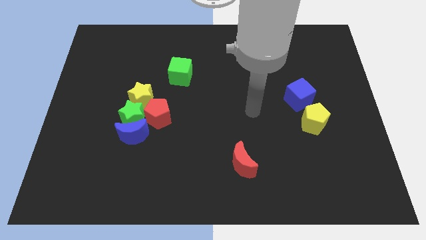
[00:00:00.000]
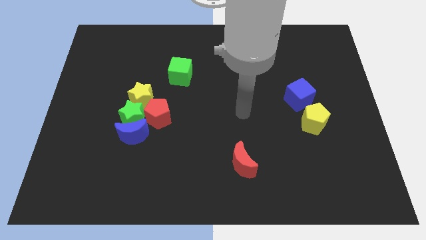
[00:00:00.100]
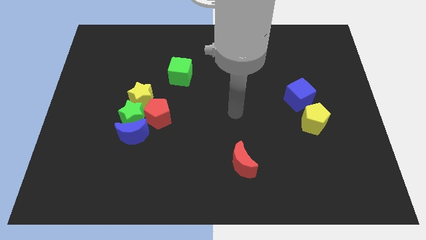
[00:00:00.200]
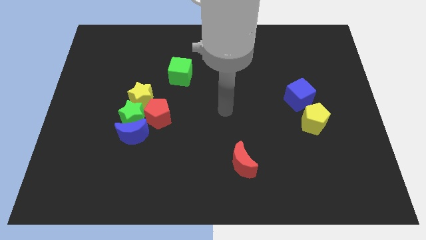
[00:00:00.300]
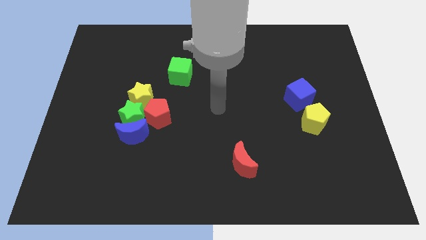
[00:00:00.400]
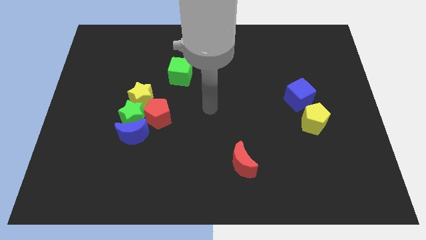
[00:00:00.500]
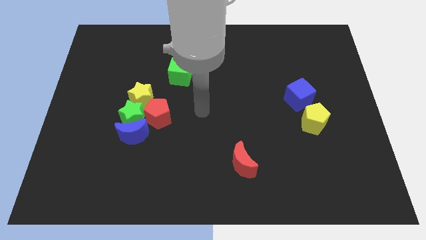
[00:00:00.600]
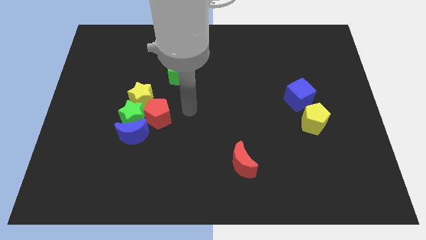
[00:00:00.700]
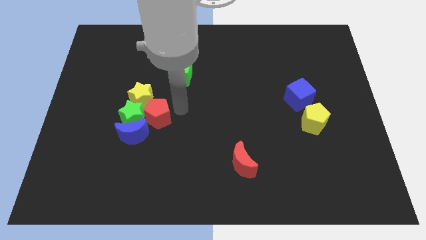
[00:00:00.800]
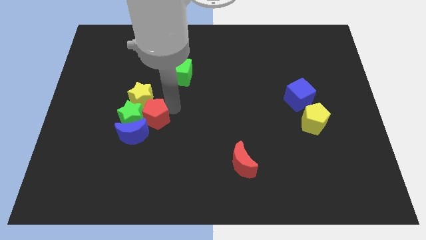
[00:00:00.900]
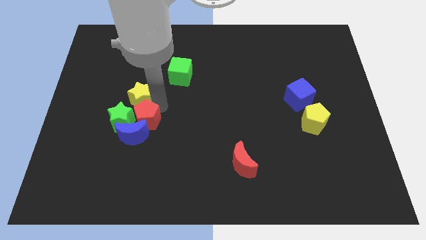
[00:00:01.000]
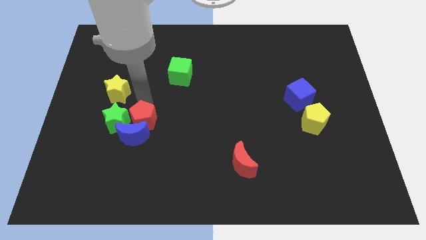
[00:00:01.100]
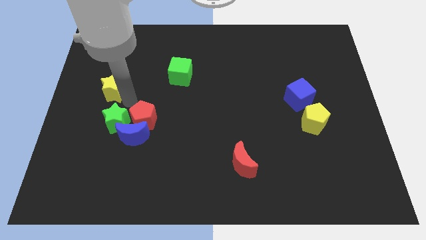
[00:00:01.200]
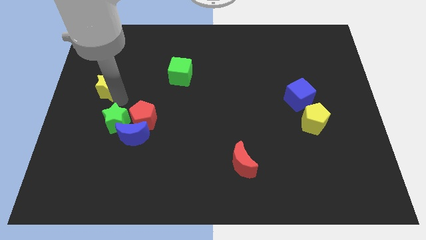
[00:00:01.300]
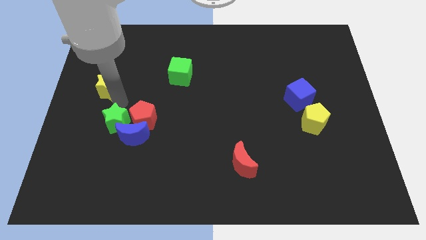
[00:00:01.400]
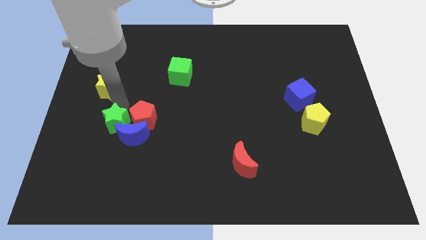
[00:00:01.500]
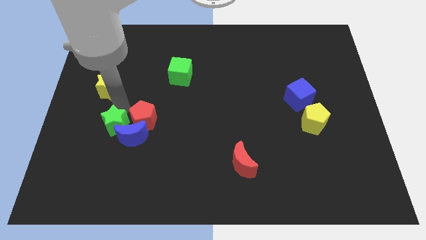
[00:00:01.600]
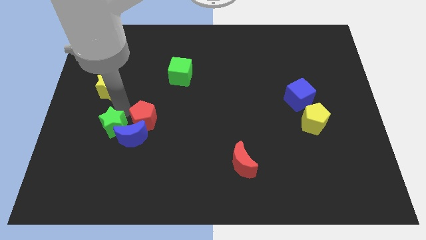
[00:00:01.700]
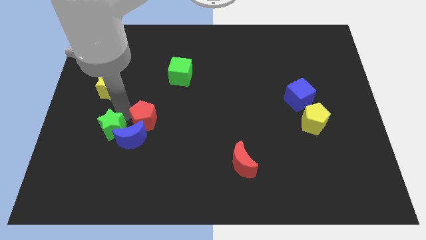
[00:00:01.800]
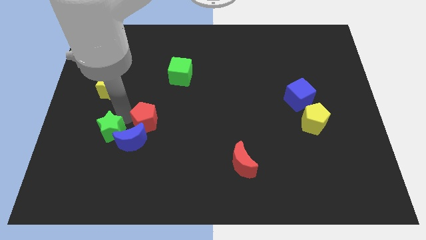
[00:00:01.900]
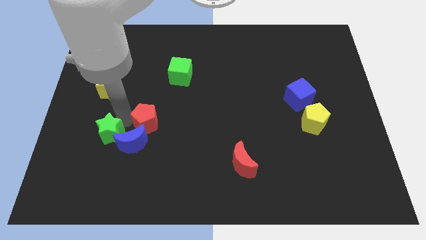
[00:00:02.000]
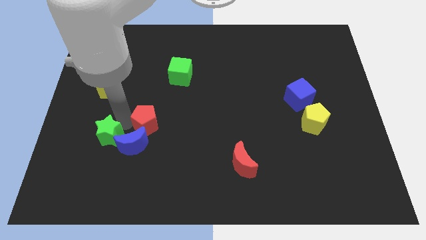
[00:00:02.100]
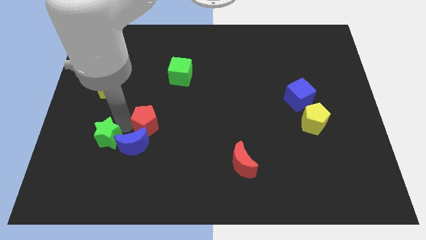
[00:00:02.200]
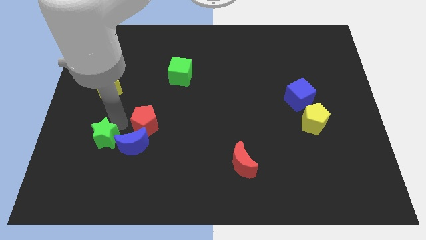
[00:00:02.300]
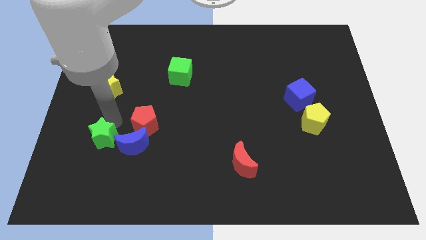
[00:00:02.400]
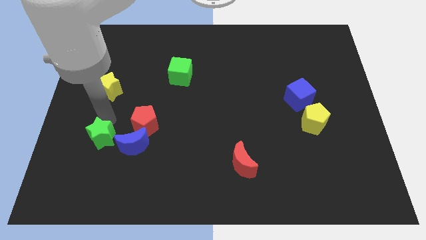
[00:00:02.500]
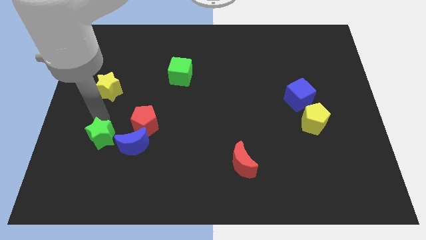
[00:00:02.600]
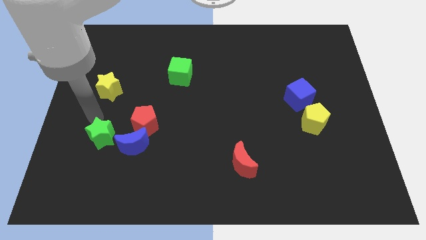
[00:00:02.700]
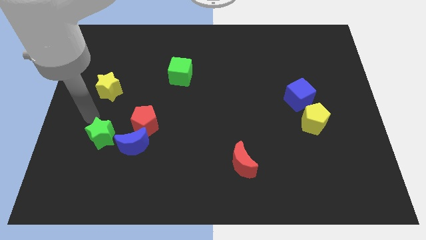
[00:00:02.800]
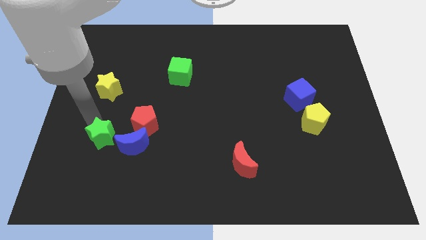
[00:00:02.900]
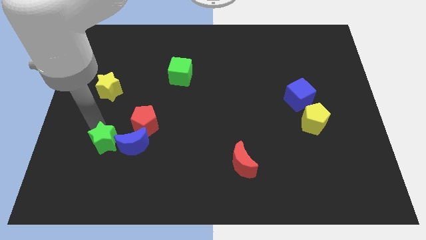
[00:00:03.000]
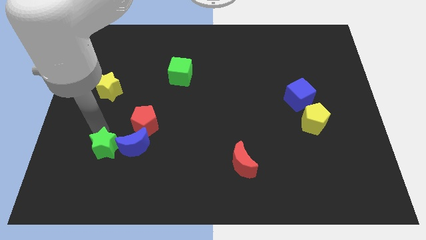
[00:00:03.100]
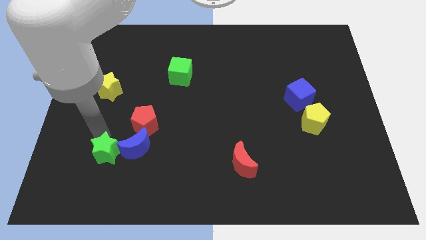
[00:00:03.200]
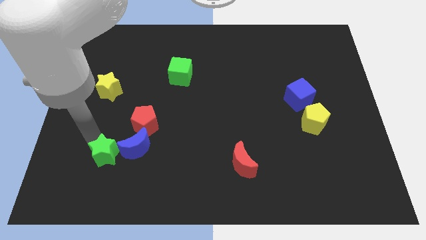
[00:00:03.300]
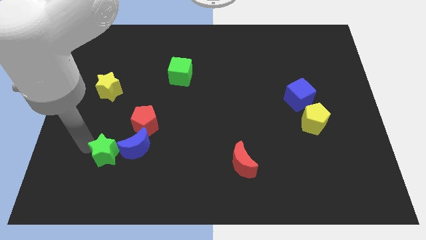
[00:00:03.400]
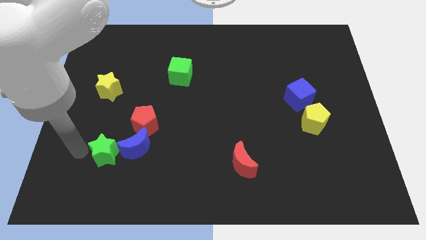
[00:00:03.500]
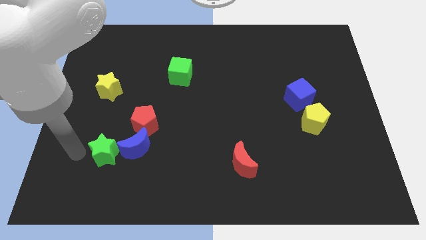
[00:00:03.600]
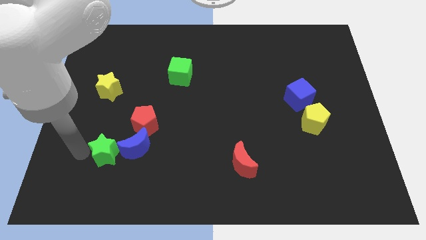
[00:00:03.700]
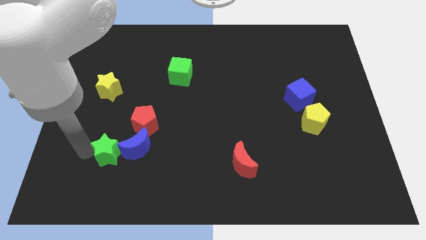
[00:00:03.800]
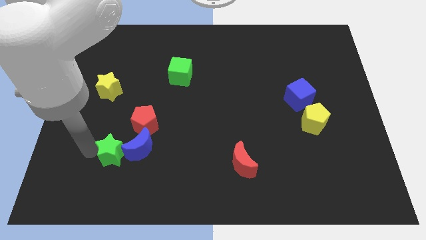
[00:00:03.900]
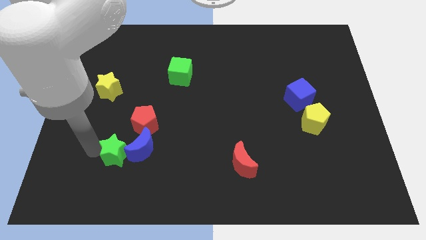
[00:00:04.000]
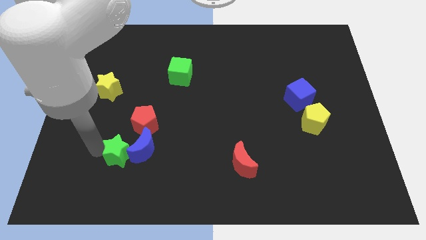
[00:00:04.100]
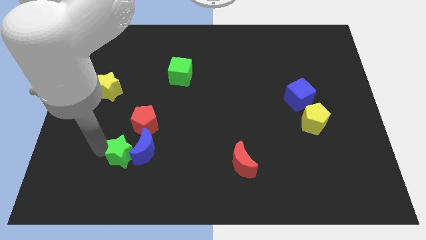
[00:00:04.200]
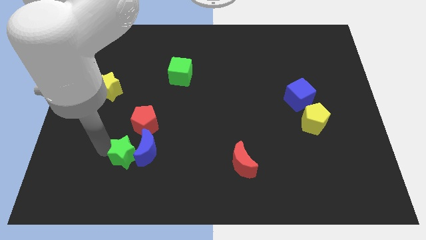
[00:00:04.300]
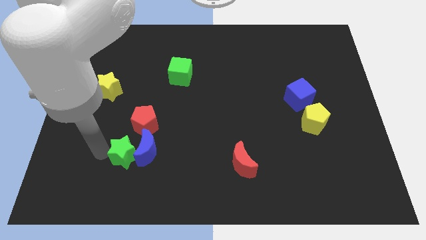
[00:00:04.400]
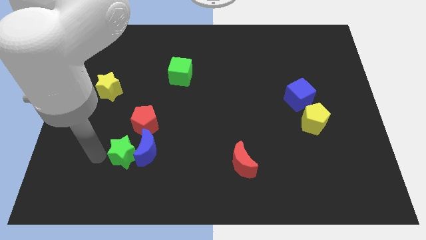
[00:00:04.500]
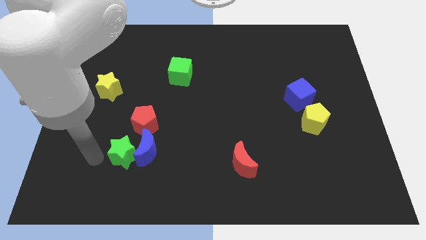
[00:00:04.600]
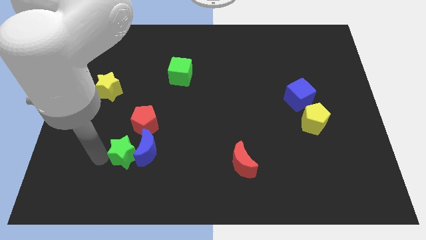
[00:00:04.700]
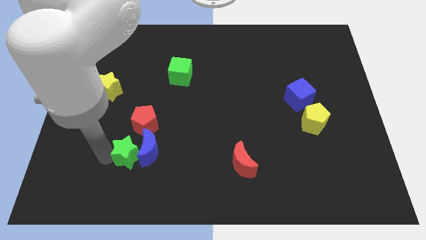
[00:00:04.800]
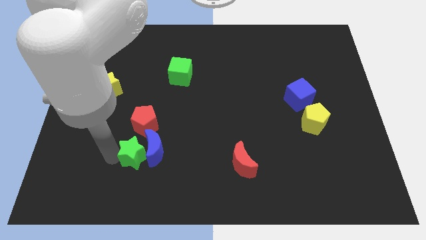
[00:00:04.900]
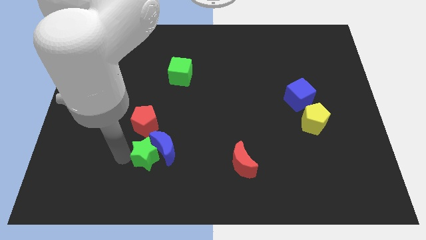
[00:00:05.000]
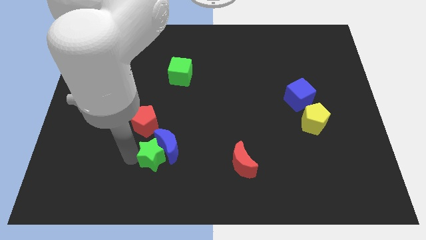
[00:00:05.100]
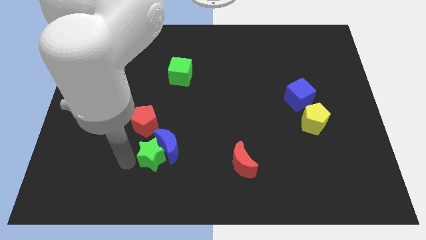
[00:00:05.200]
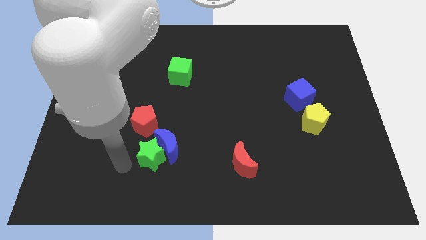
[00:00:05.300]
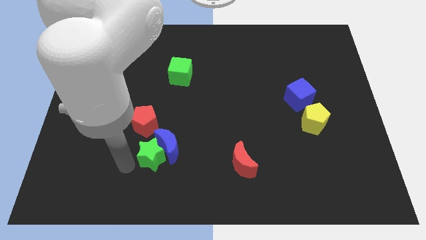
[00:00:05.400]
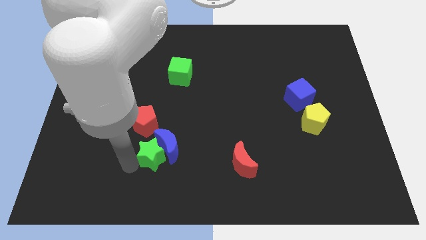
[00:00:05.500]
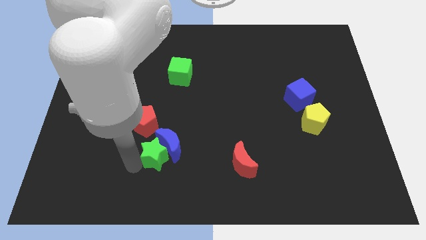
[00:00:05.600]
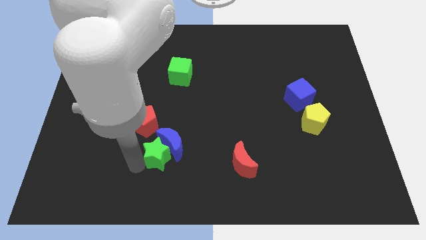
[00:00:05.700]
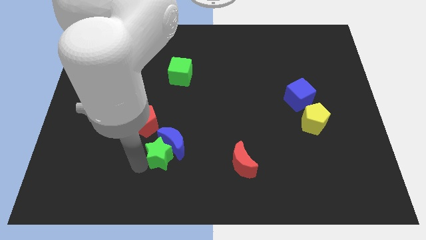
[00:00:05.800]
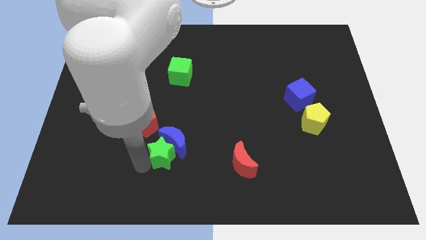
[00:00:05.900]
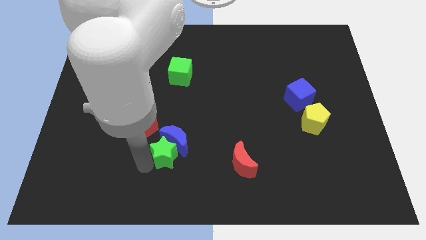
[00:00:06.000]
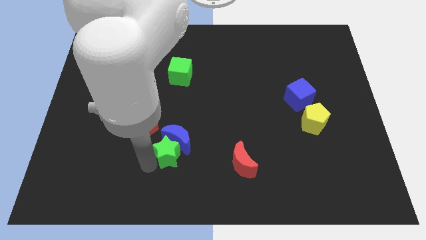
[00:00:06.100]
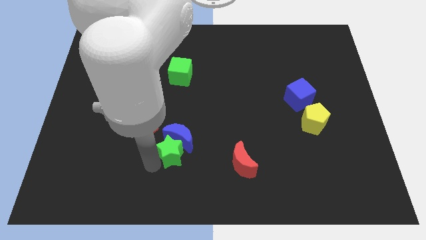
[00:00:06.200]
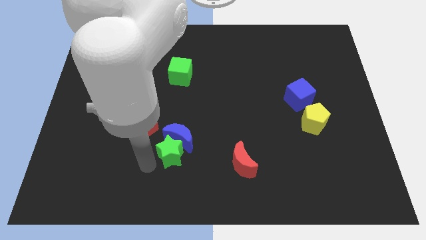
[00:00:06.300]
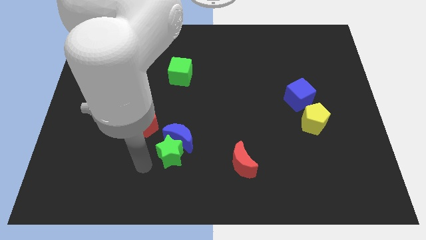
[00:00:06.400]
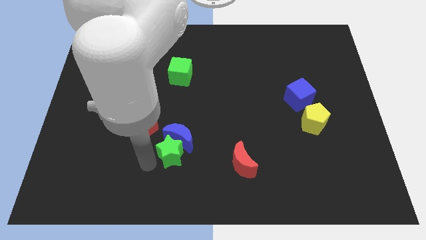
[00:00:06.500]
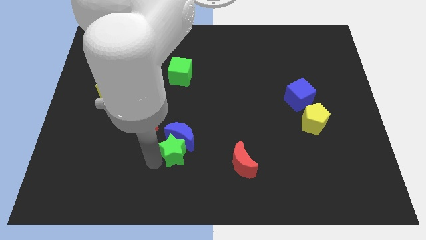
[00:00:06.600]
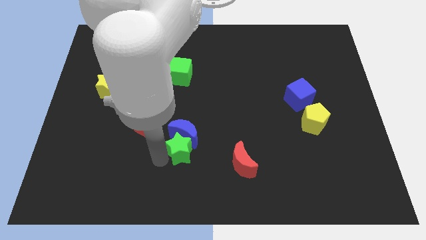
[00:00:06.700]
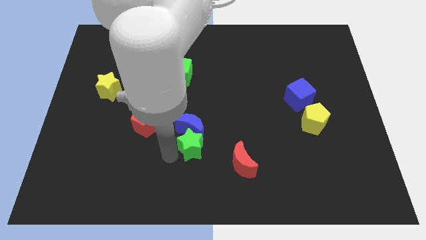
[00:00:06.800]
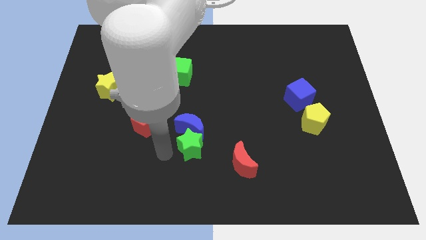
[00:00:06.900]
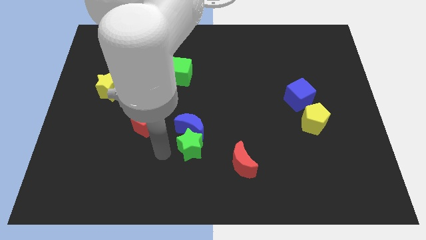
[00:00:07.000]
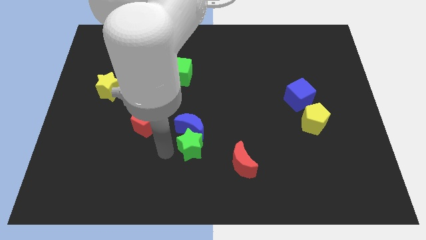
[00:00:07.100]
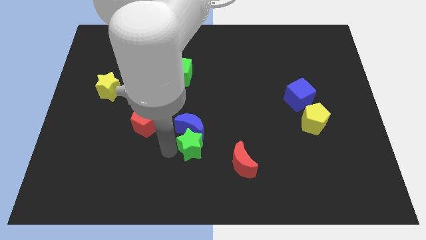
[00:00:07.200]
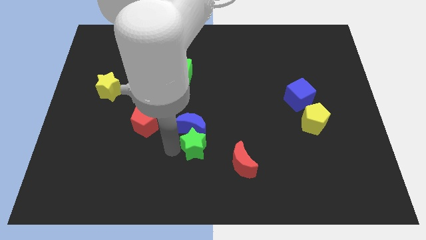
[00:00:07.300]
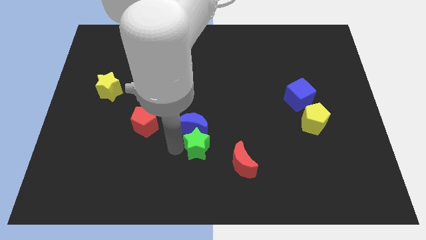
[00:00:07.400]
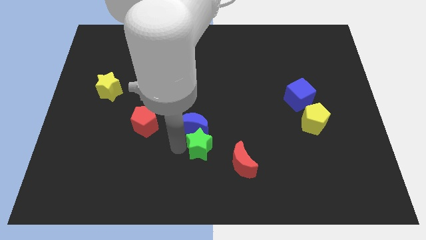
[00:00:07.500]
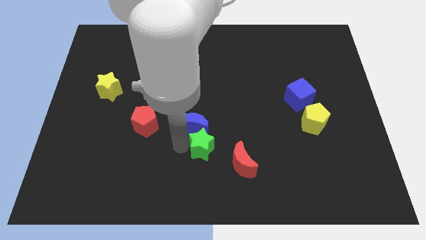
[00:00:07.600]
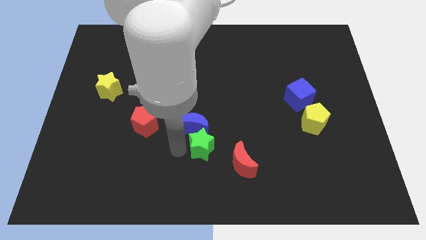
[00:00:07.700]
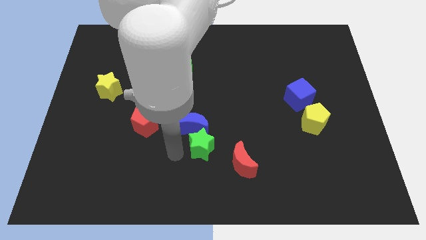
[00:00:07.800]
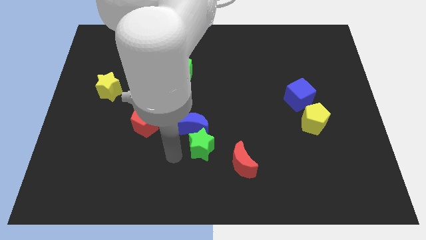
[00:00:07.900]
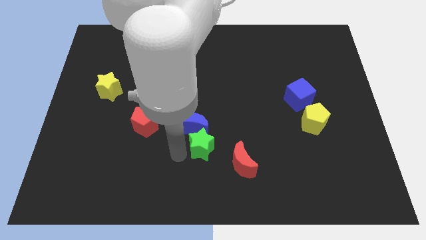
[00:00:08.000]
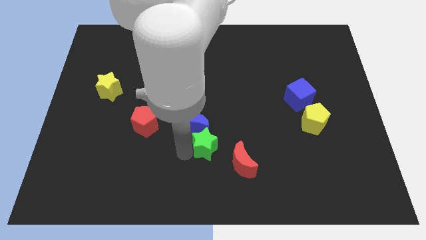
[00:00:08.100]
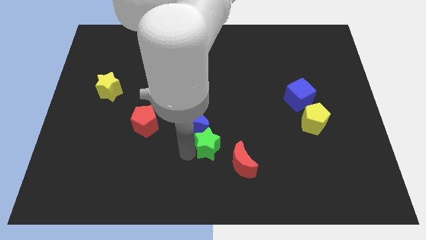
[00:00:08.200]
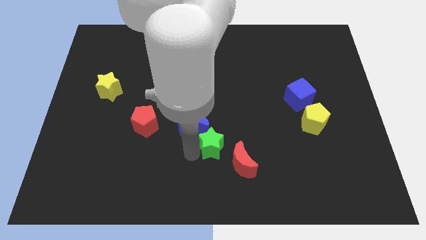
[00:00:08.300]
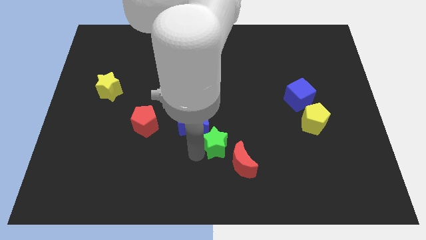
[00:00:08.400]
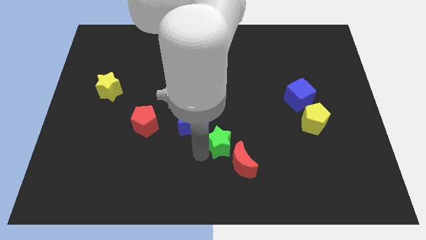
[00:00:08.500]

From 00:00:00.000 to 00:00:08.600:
slide the green star above the red moon
